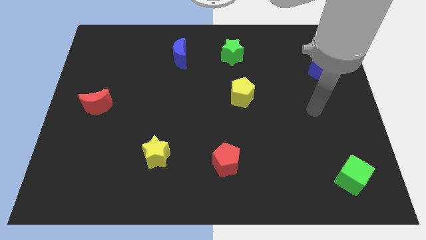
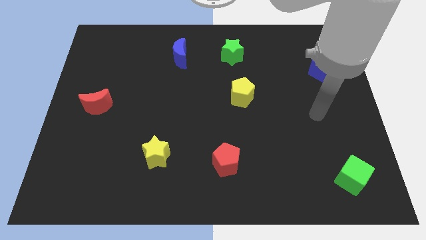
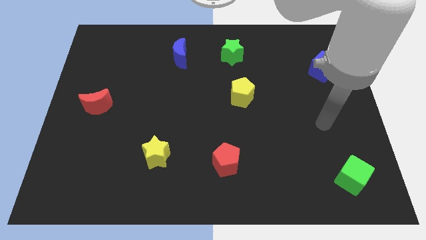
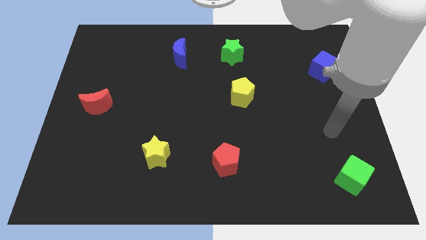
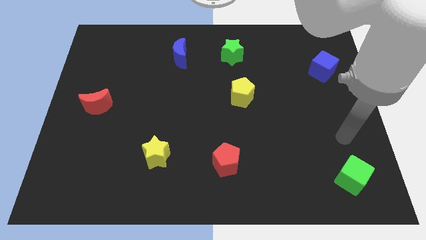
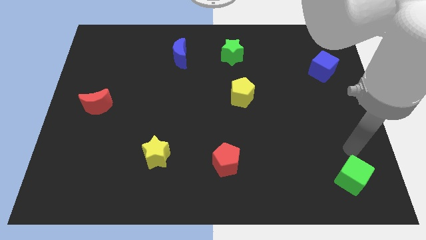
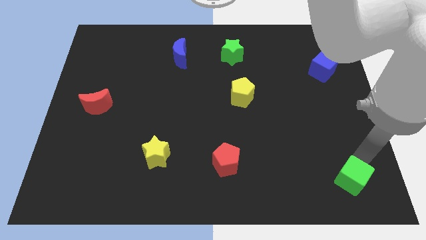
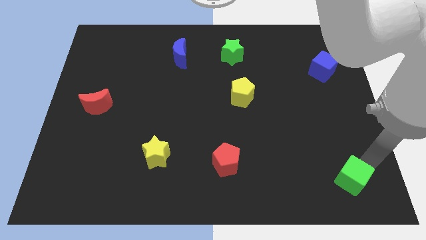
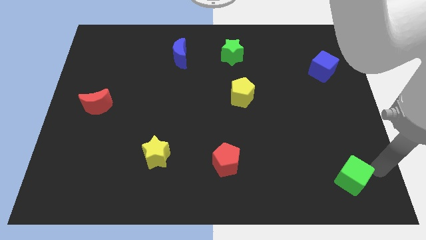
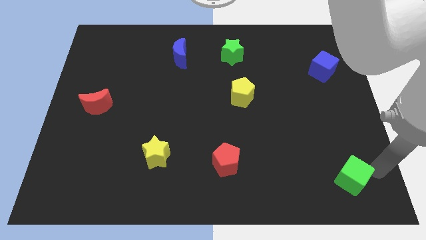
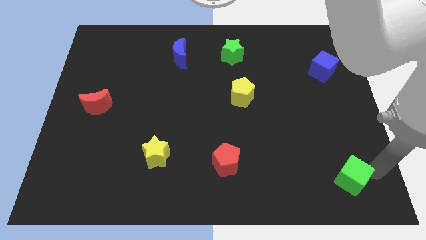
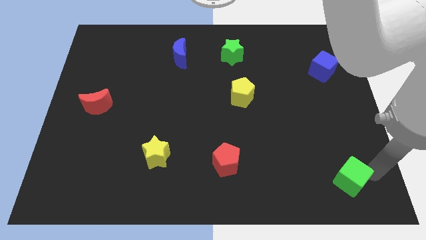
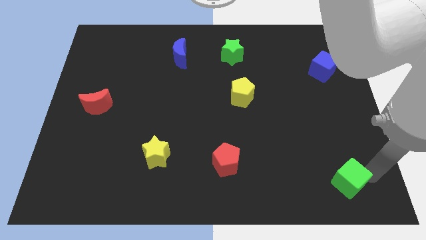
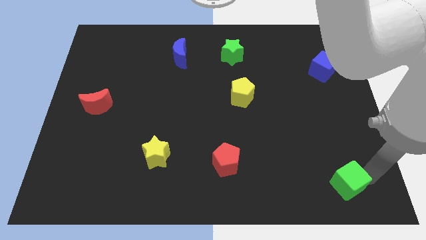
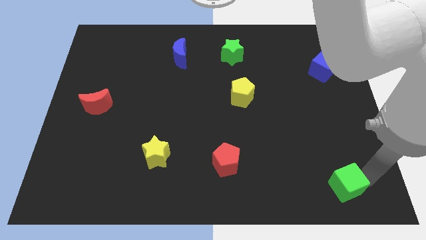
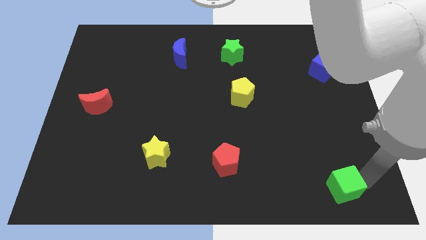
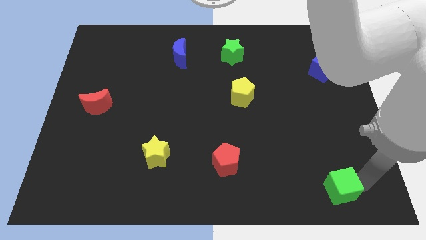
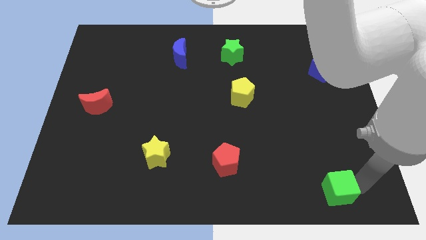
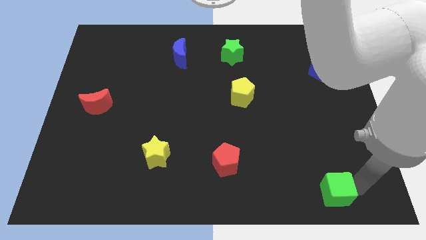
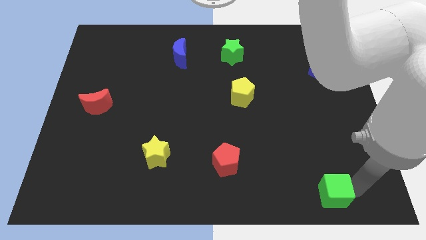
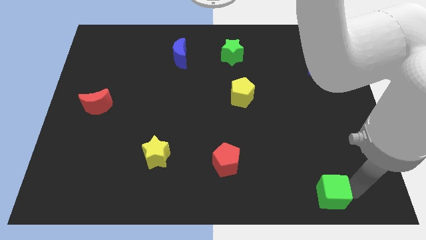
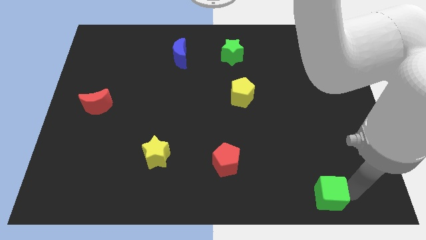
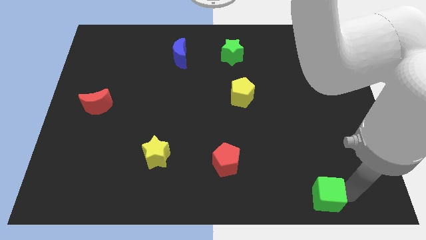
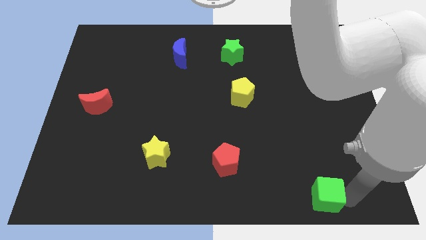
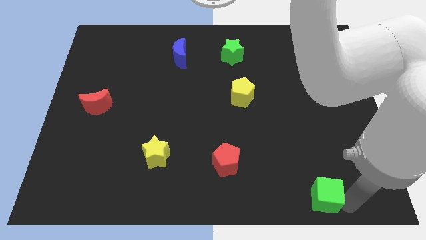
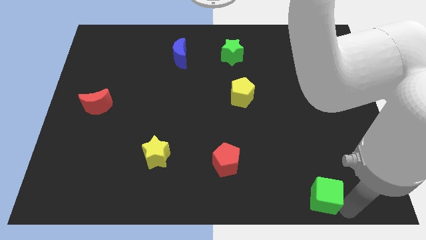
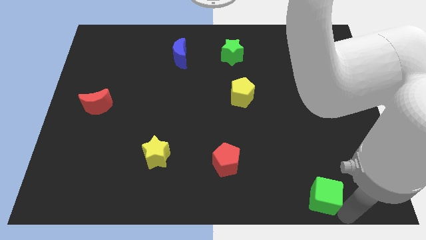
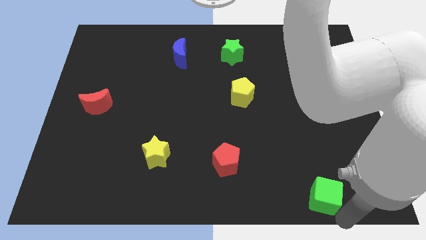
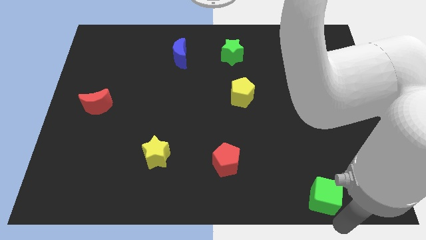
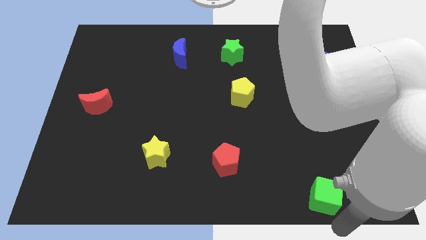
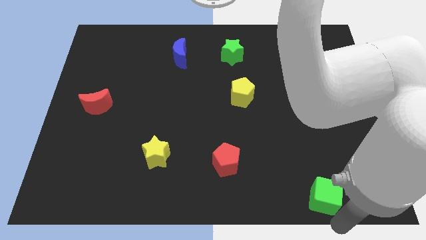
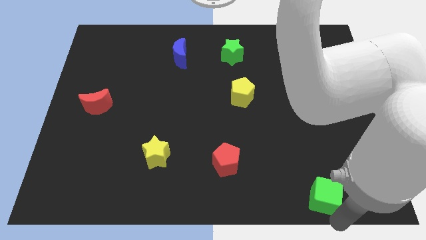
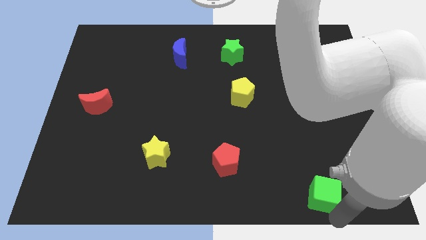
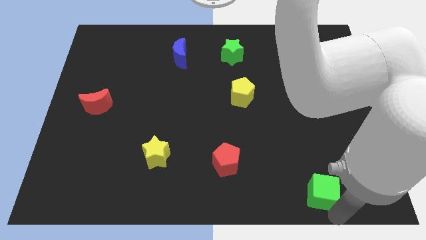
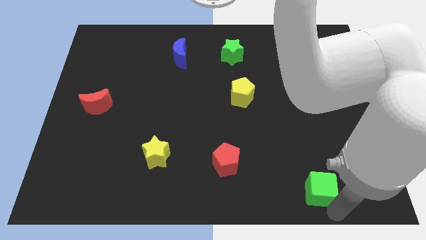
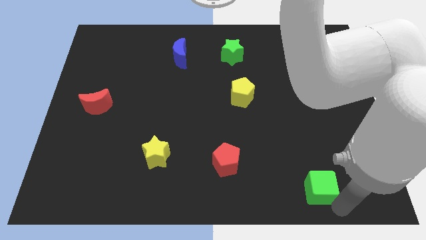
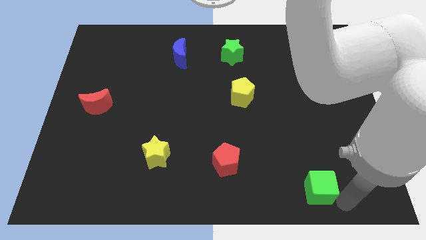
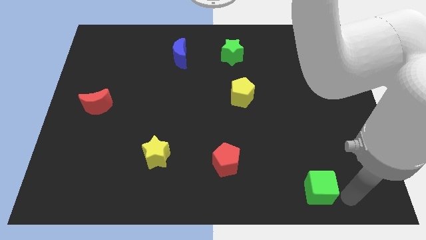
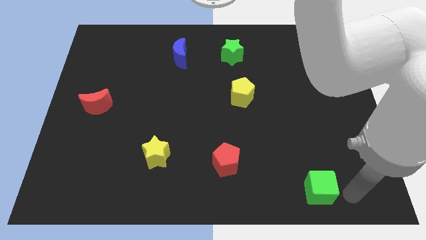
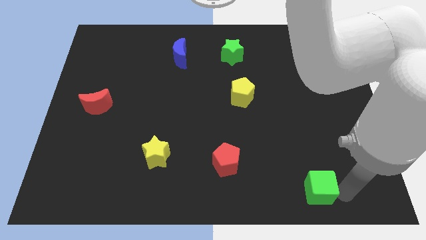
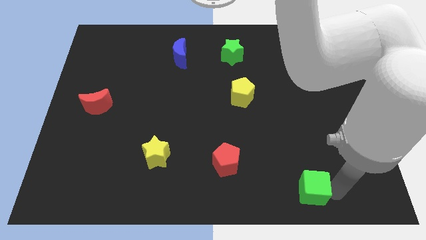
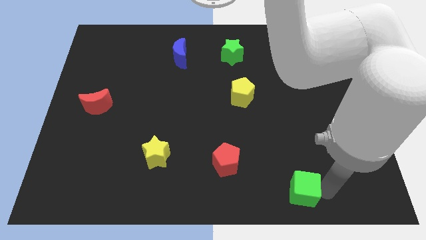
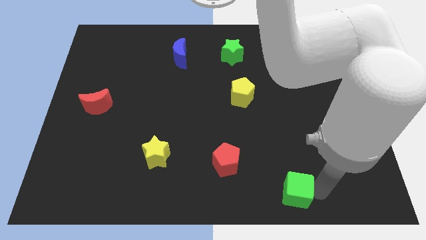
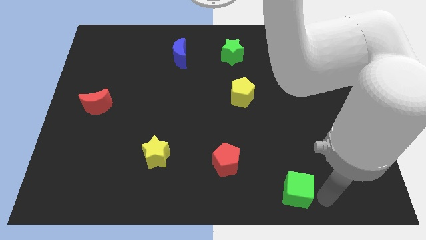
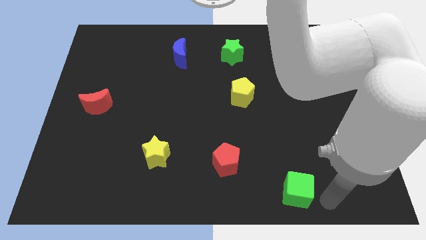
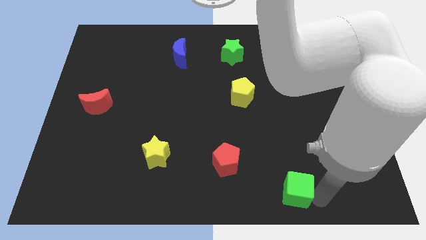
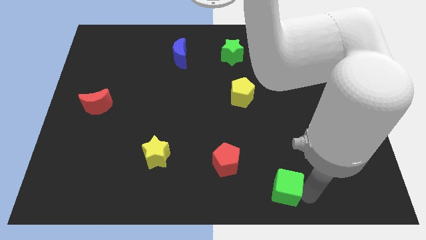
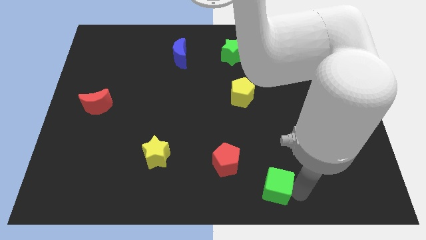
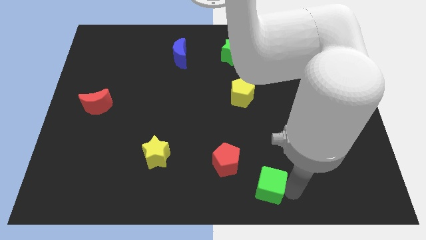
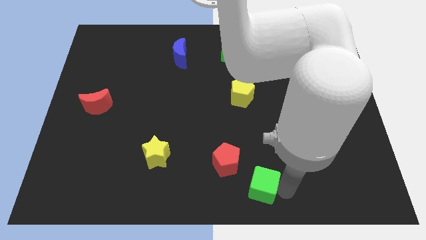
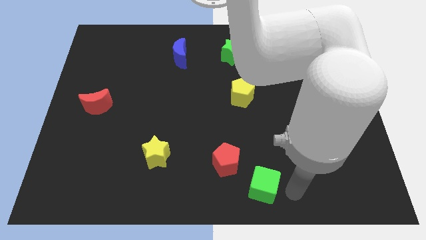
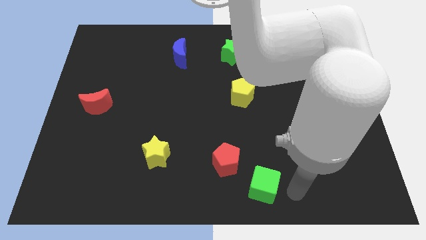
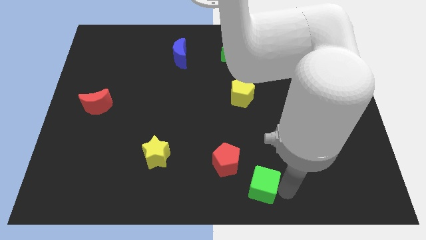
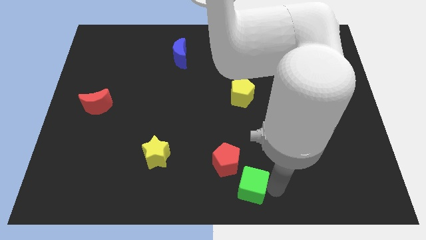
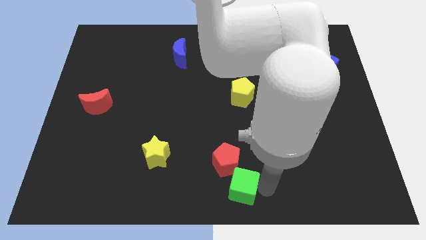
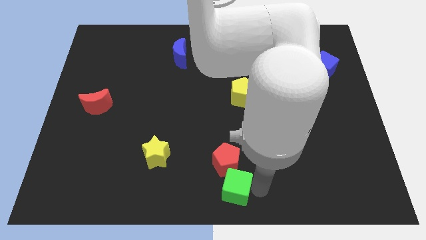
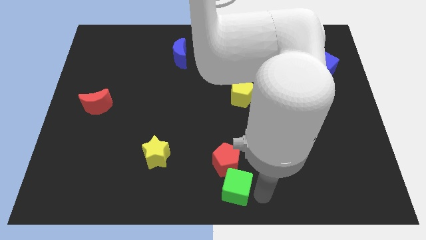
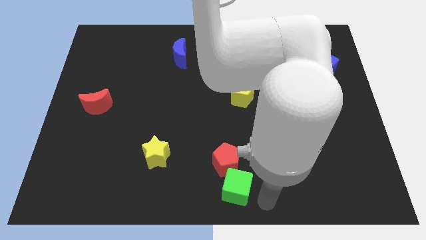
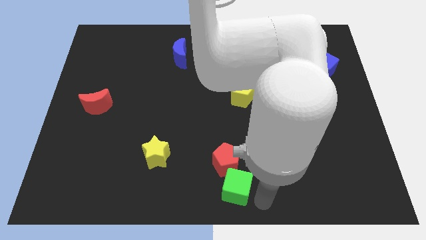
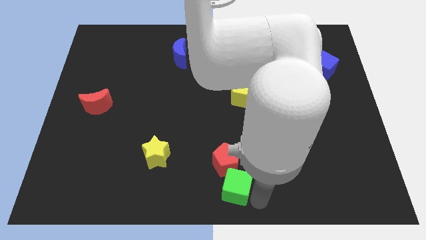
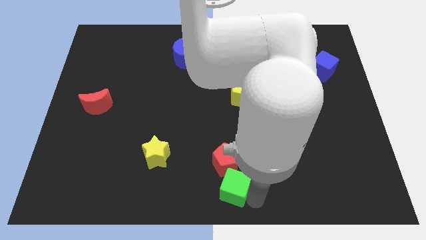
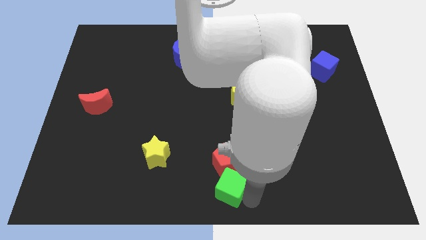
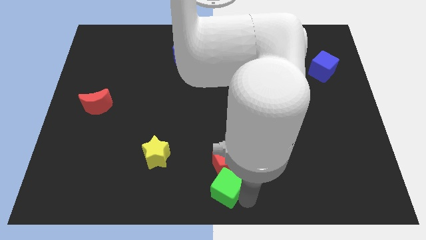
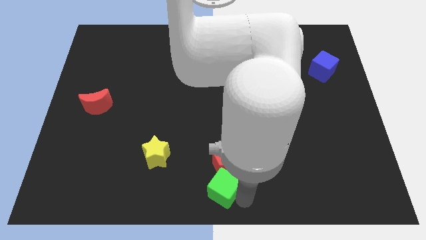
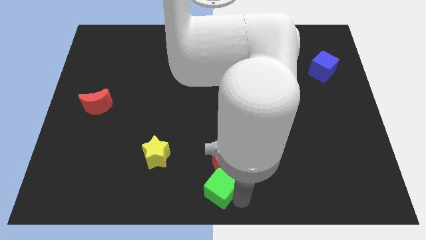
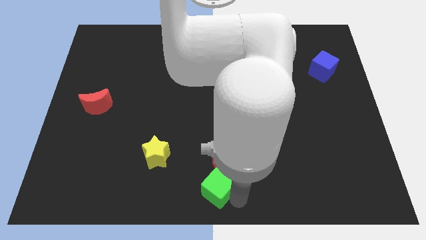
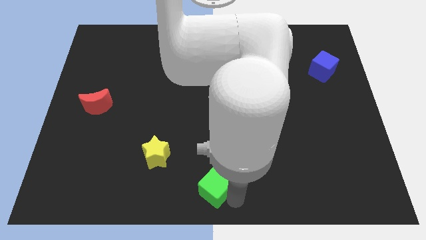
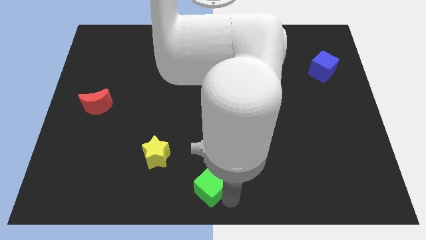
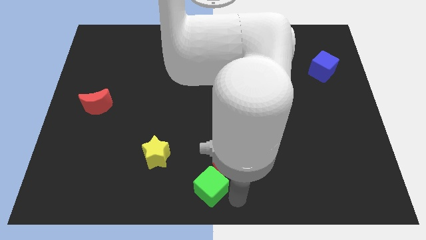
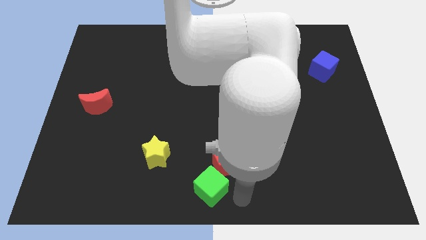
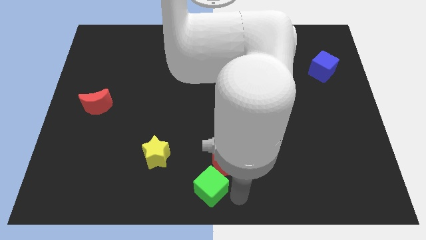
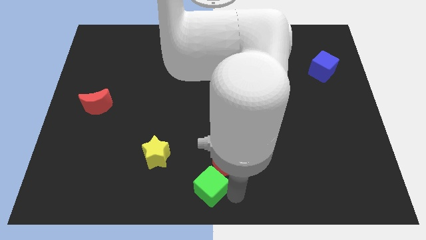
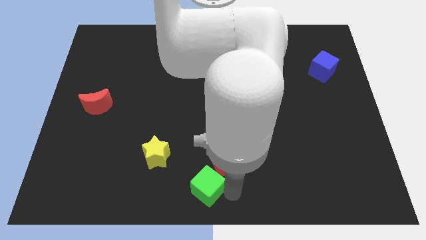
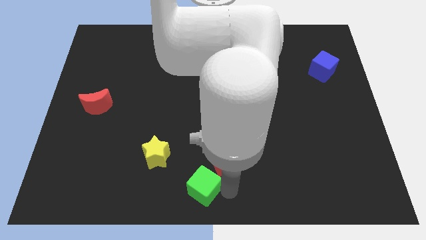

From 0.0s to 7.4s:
put the green cube to the bottom right of the yellow star

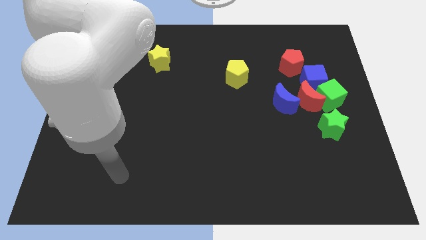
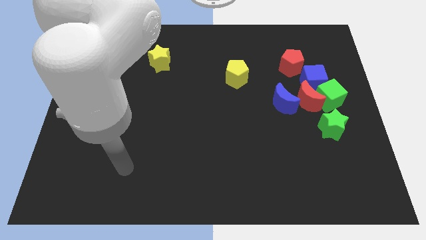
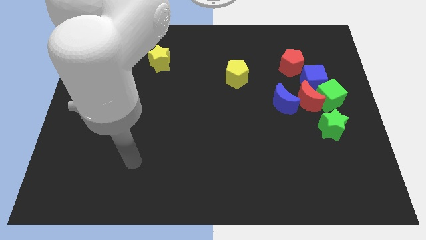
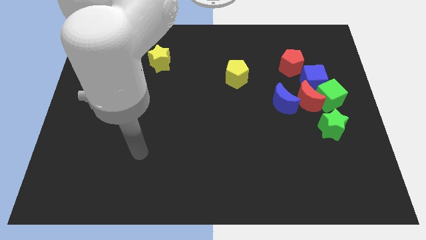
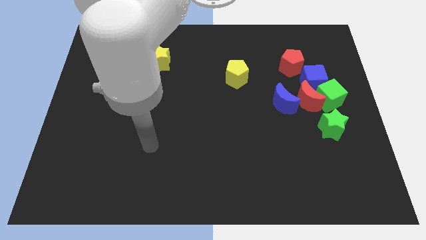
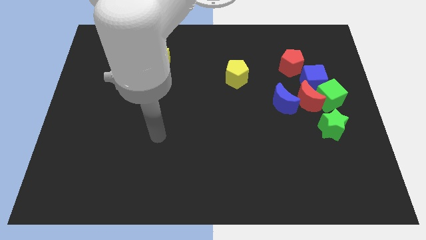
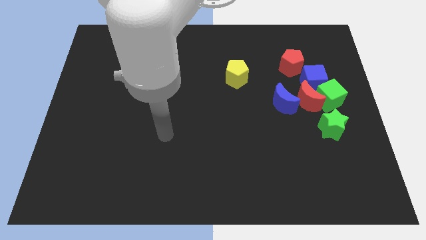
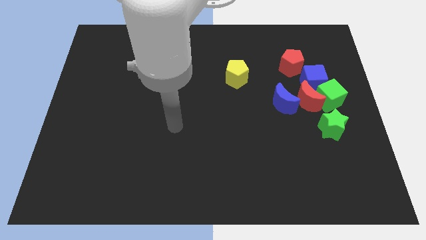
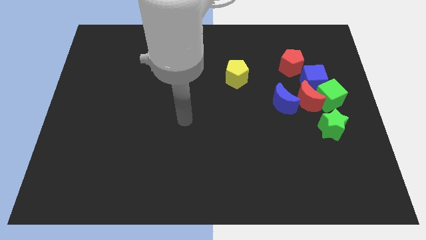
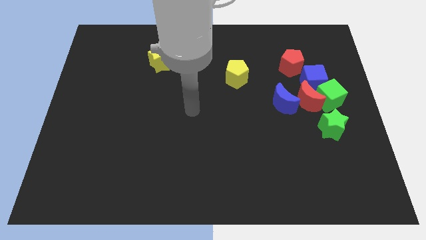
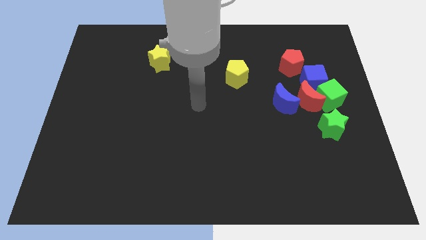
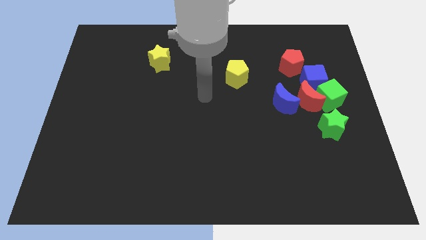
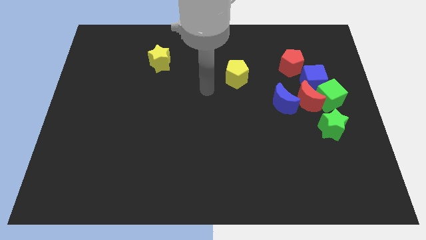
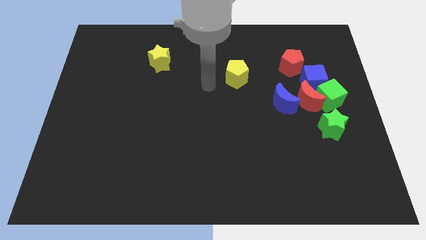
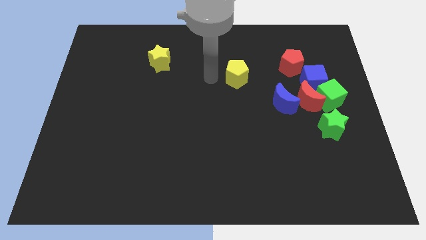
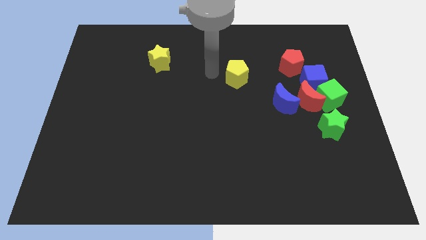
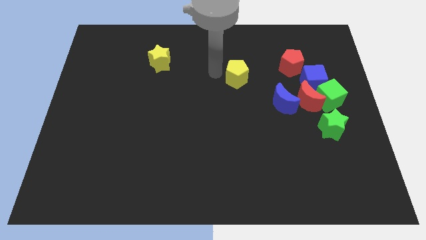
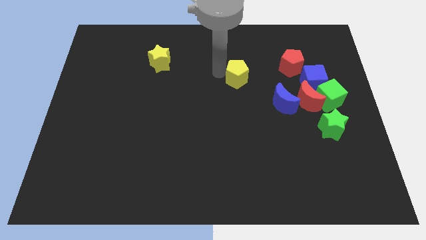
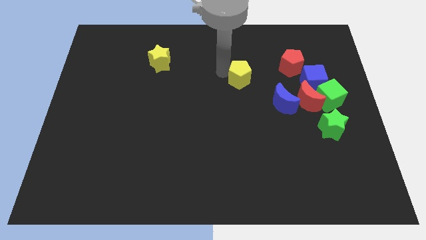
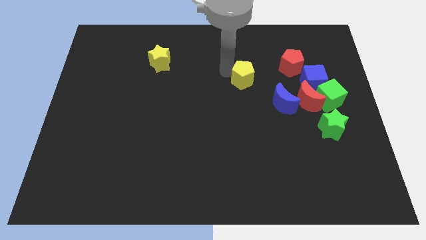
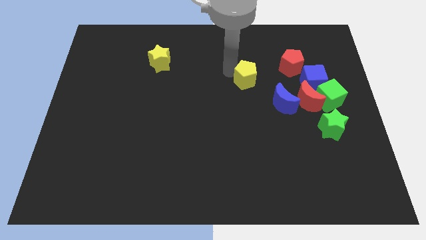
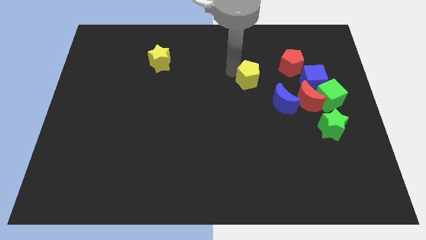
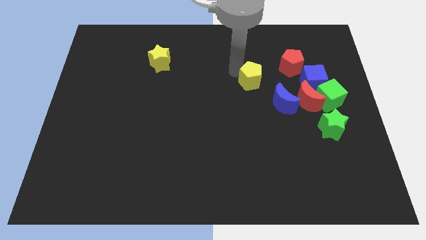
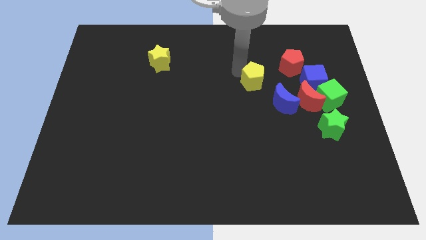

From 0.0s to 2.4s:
slide the yellow pentagon diagonally down and to the left of the red pentagon
